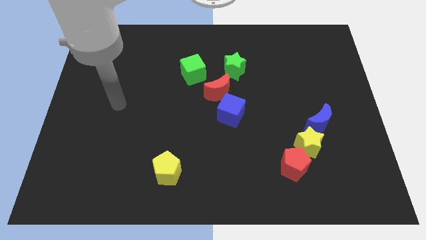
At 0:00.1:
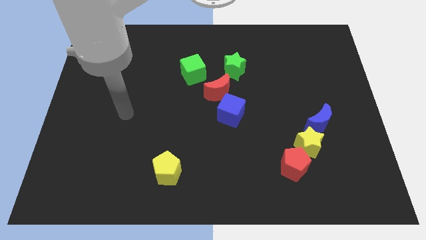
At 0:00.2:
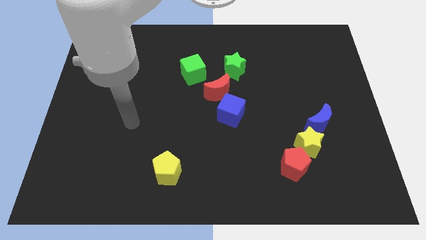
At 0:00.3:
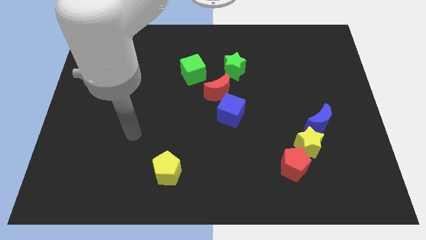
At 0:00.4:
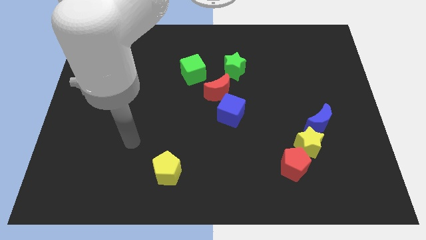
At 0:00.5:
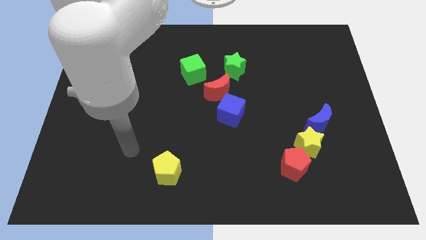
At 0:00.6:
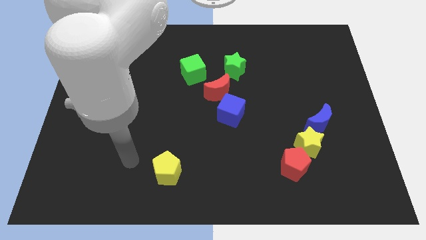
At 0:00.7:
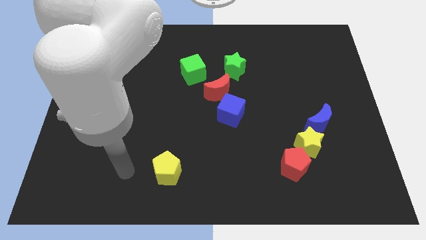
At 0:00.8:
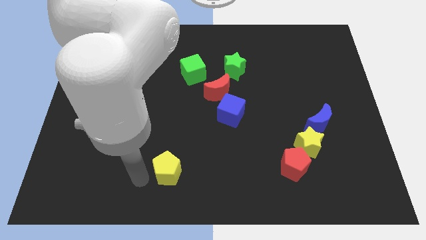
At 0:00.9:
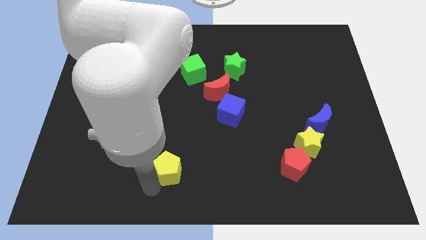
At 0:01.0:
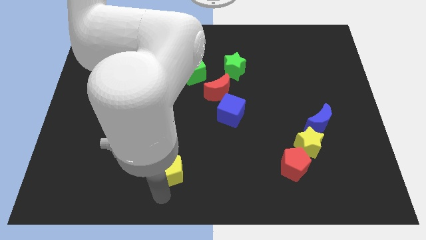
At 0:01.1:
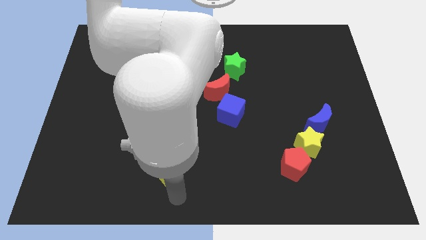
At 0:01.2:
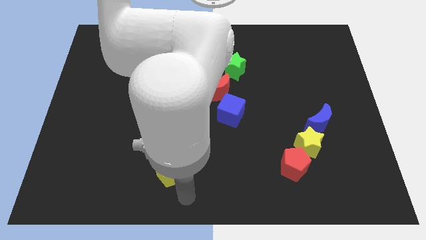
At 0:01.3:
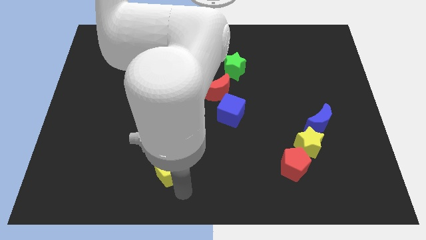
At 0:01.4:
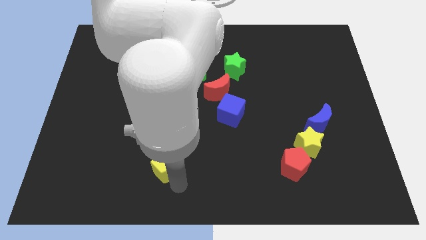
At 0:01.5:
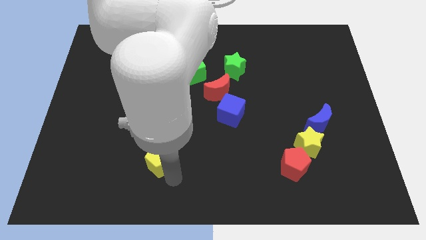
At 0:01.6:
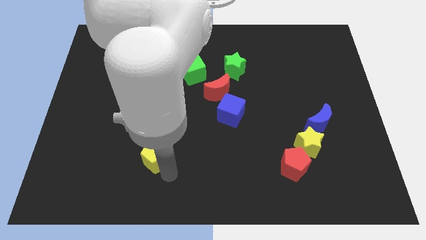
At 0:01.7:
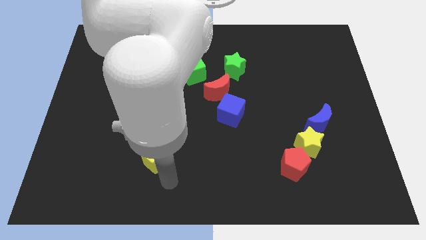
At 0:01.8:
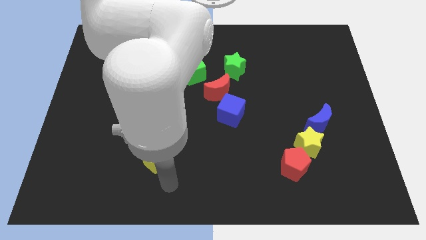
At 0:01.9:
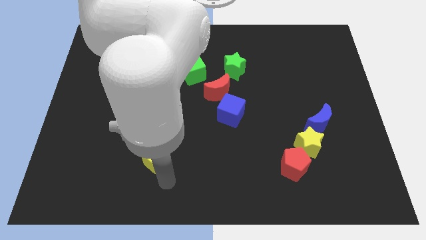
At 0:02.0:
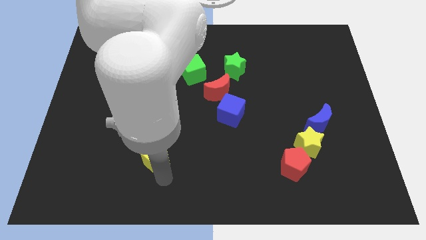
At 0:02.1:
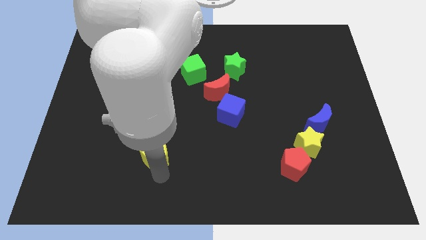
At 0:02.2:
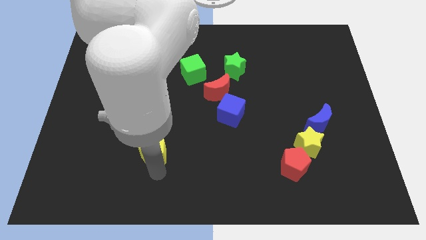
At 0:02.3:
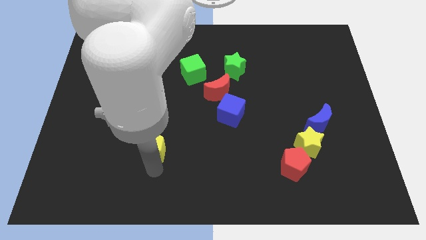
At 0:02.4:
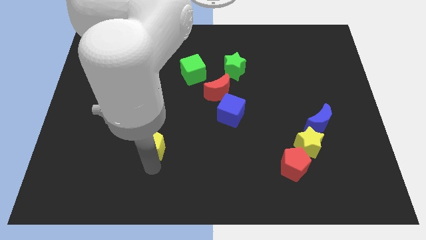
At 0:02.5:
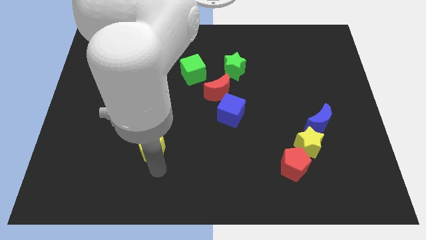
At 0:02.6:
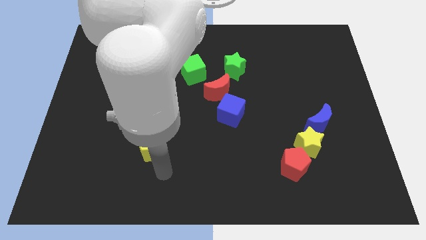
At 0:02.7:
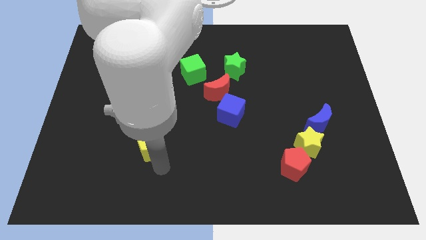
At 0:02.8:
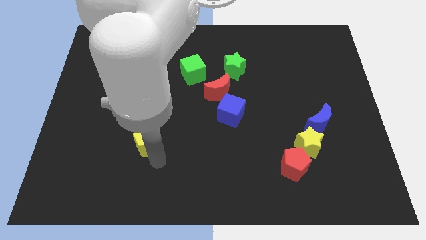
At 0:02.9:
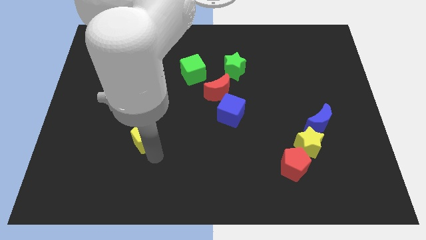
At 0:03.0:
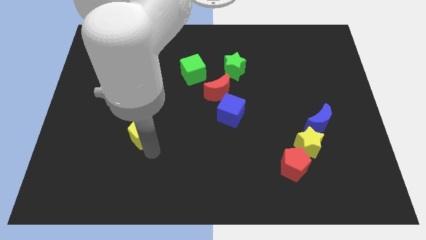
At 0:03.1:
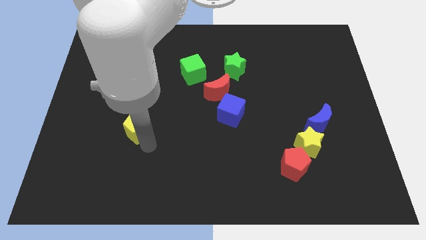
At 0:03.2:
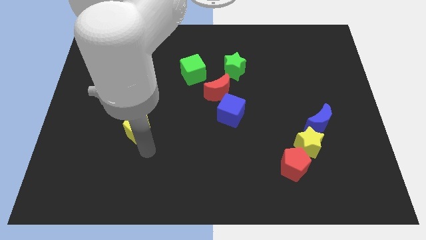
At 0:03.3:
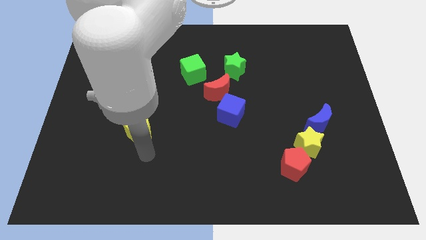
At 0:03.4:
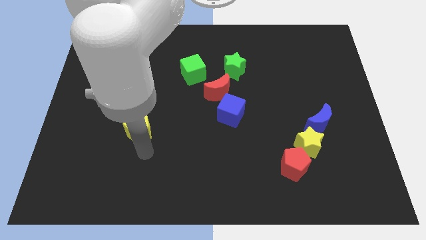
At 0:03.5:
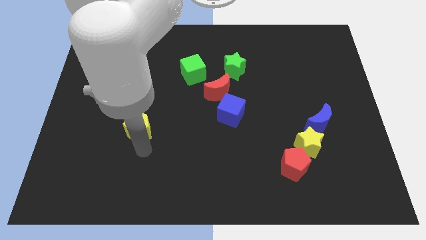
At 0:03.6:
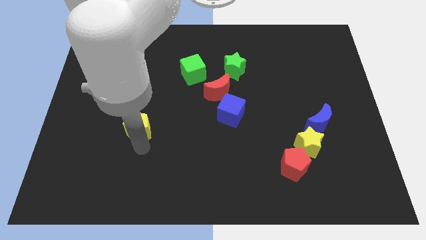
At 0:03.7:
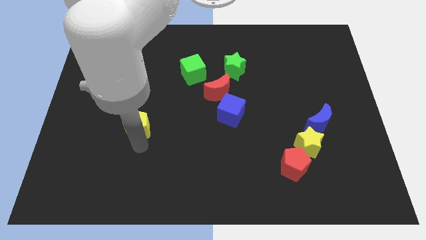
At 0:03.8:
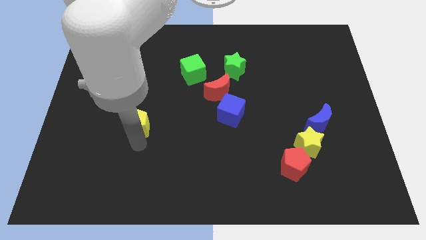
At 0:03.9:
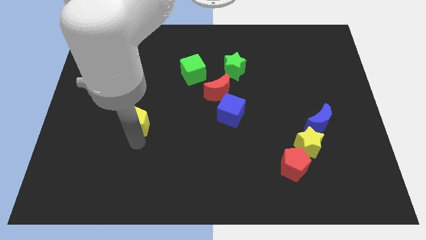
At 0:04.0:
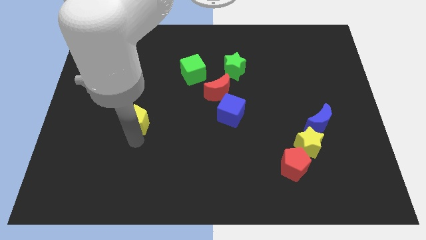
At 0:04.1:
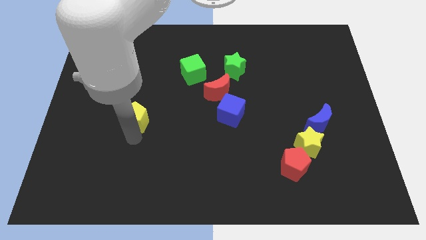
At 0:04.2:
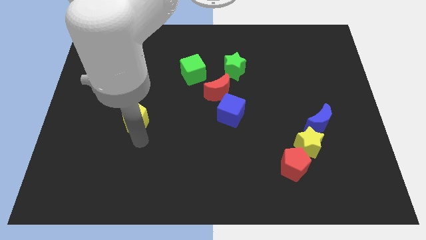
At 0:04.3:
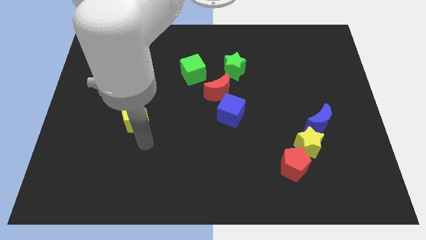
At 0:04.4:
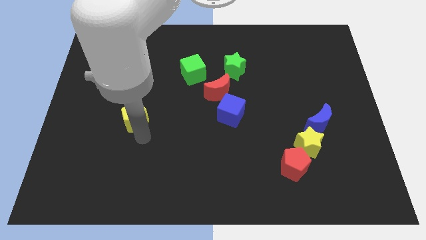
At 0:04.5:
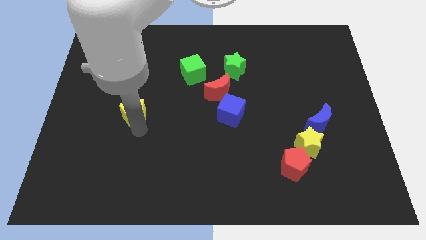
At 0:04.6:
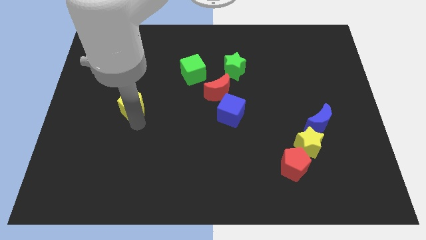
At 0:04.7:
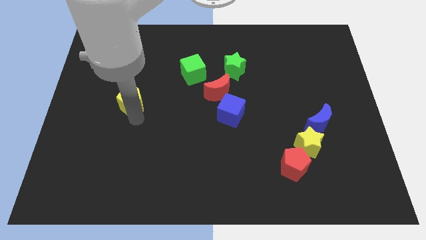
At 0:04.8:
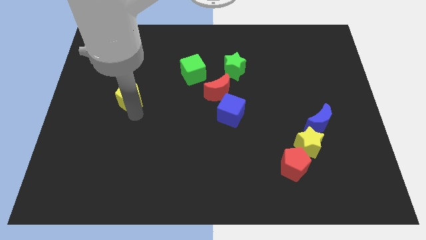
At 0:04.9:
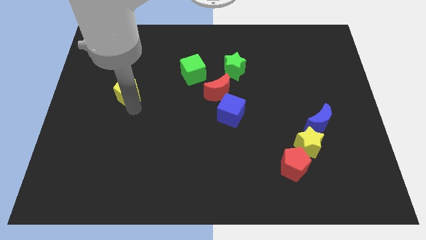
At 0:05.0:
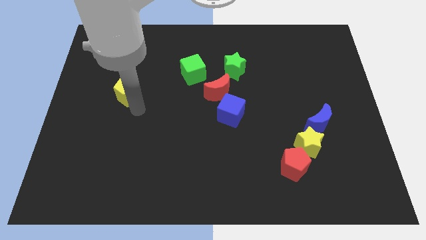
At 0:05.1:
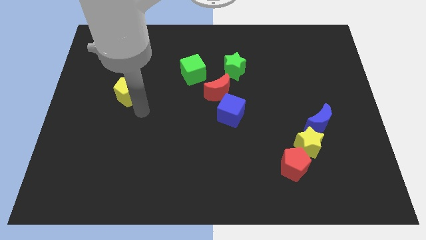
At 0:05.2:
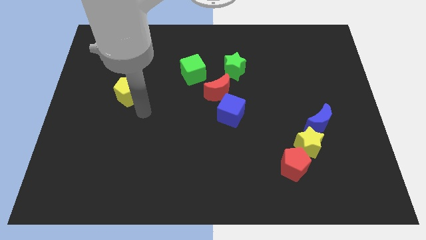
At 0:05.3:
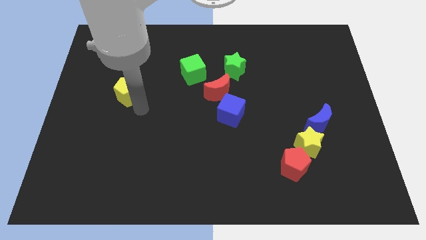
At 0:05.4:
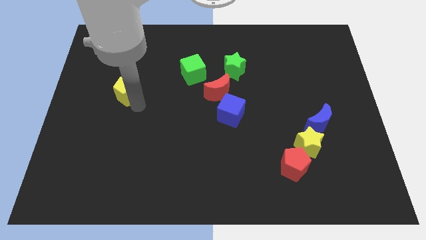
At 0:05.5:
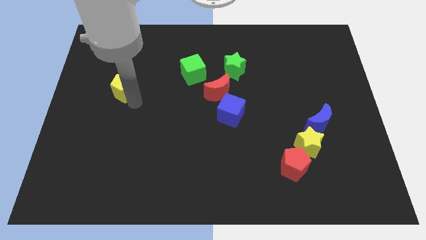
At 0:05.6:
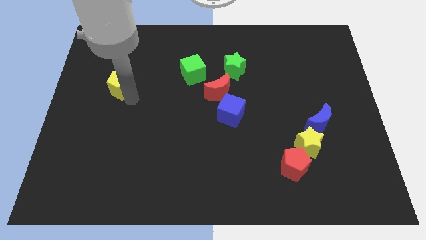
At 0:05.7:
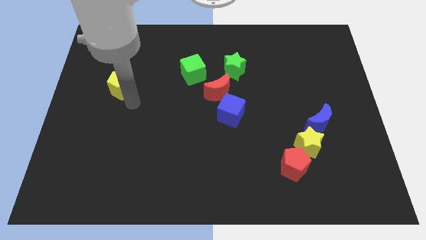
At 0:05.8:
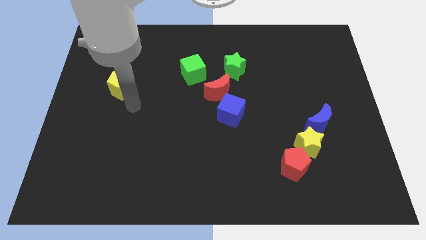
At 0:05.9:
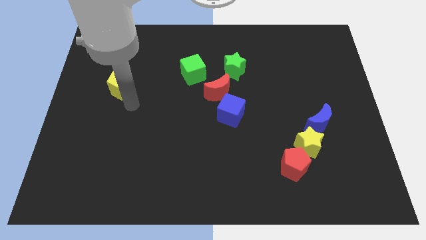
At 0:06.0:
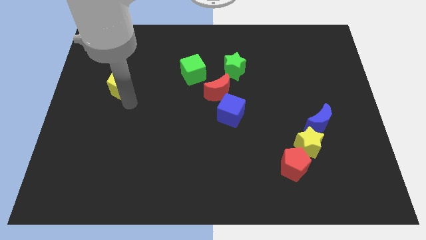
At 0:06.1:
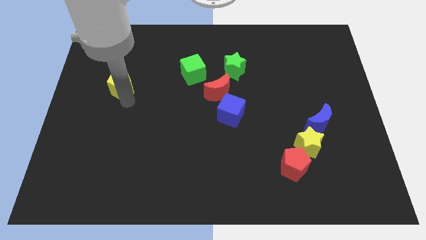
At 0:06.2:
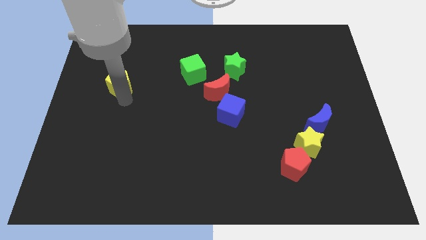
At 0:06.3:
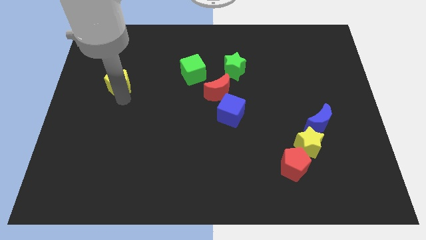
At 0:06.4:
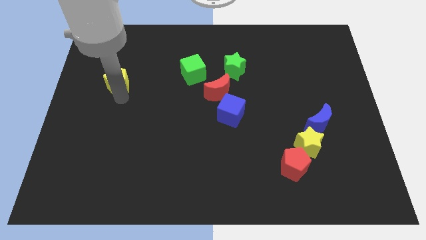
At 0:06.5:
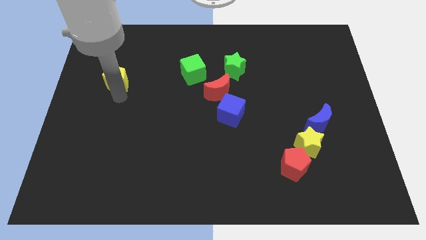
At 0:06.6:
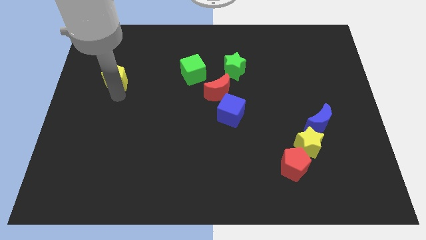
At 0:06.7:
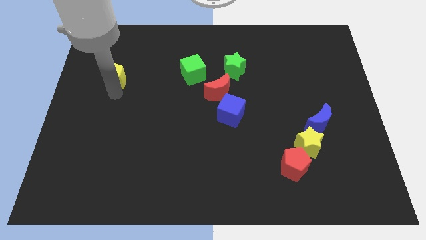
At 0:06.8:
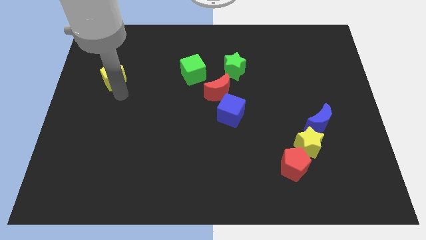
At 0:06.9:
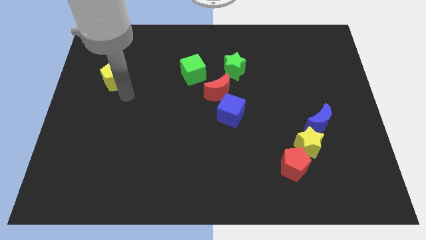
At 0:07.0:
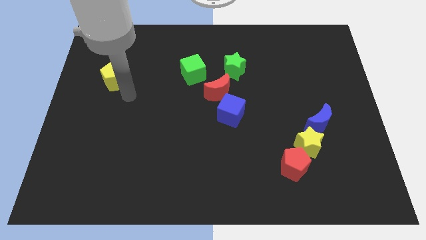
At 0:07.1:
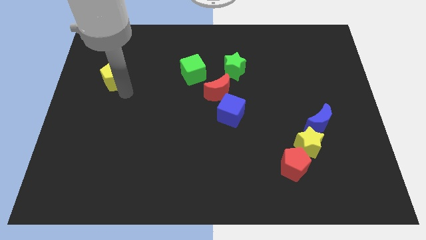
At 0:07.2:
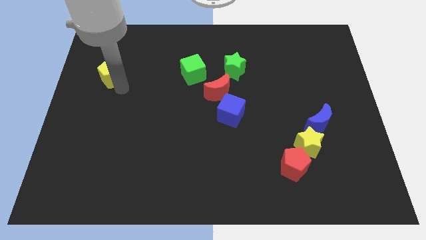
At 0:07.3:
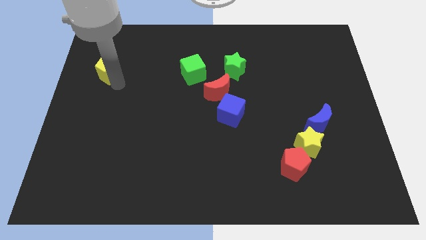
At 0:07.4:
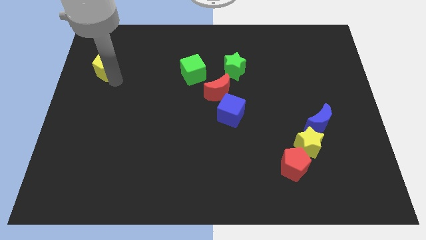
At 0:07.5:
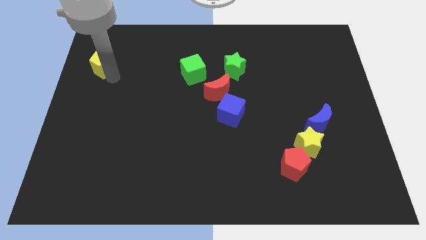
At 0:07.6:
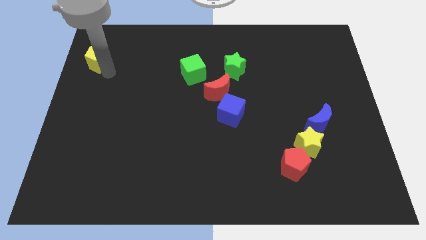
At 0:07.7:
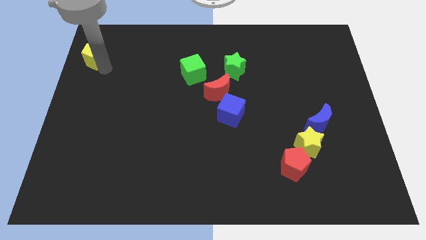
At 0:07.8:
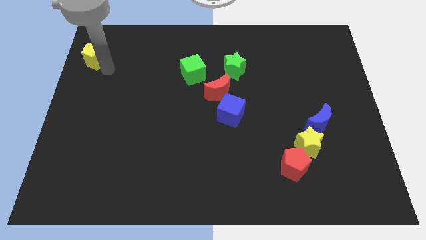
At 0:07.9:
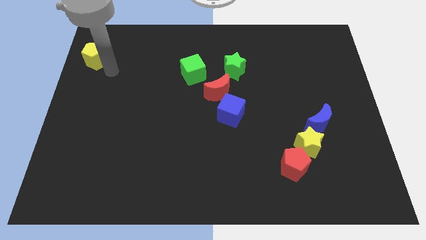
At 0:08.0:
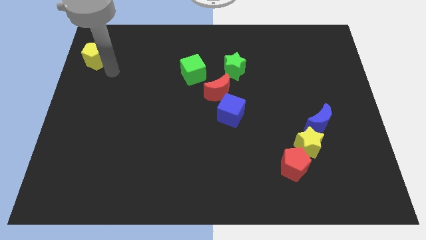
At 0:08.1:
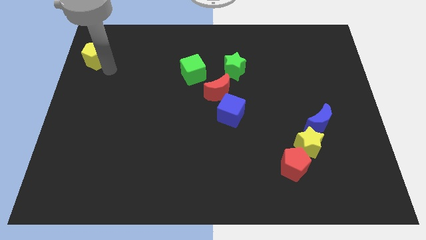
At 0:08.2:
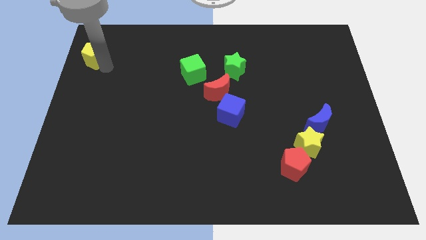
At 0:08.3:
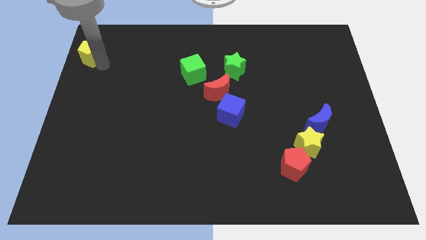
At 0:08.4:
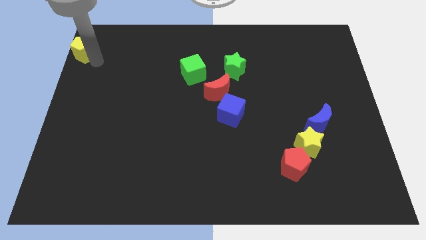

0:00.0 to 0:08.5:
put the yellow pentagon to the upper left corner
